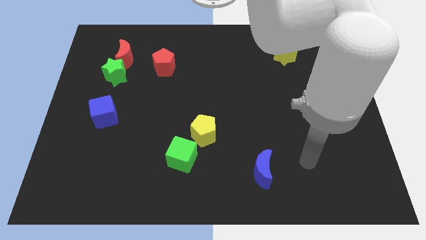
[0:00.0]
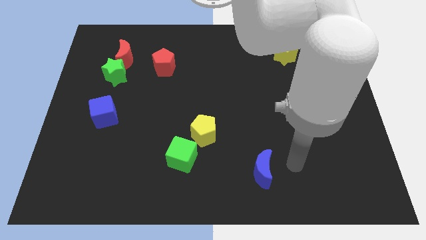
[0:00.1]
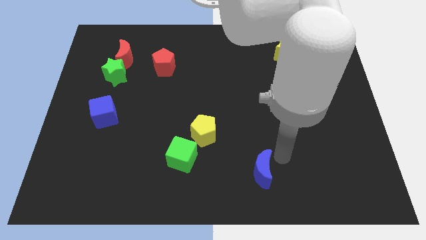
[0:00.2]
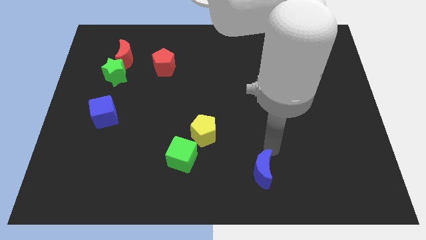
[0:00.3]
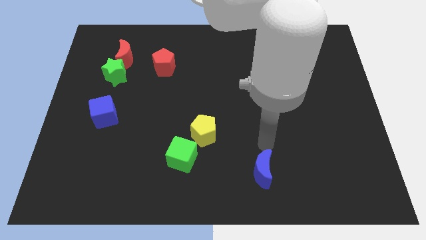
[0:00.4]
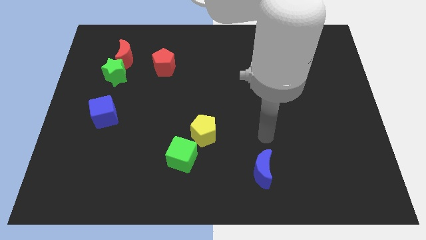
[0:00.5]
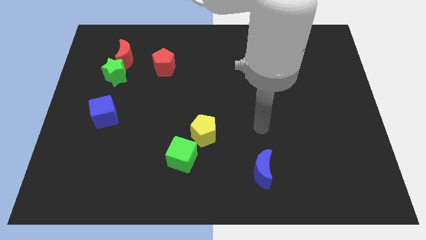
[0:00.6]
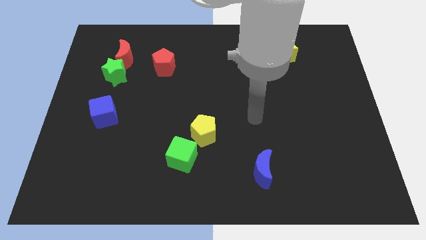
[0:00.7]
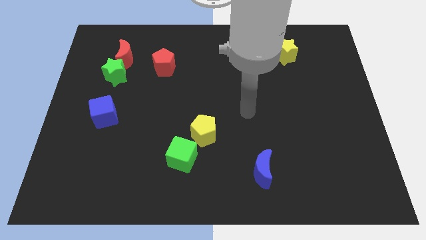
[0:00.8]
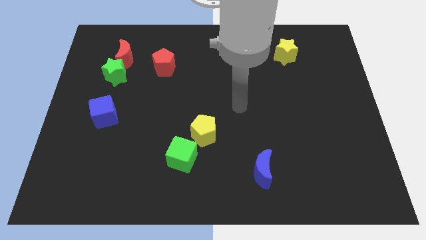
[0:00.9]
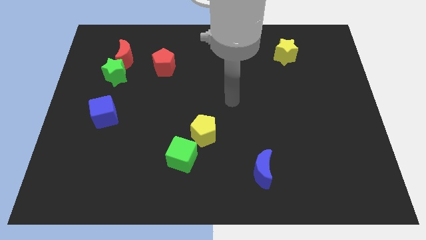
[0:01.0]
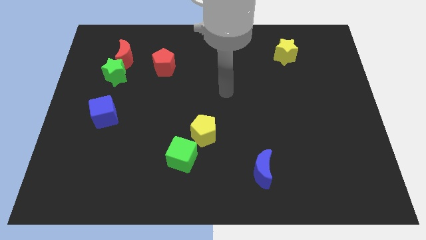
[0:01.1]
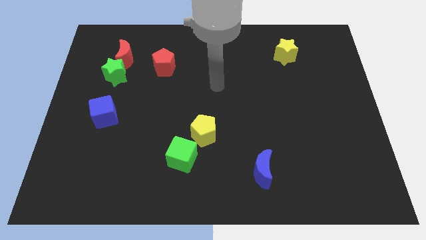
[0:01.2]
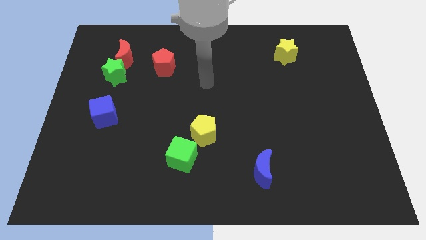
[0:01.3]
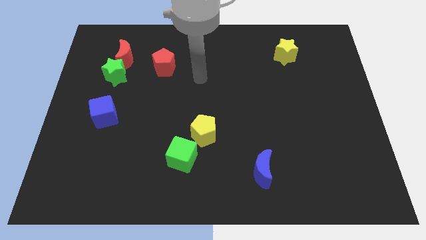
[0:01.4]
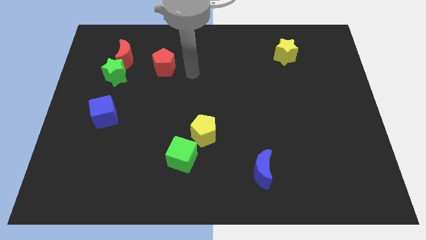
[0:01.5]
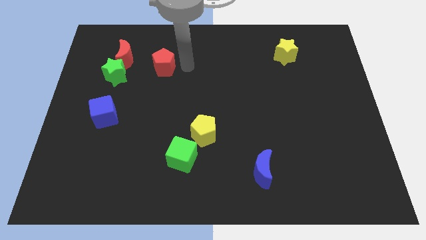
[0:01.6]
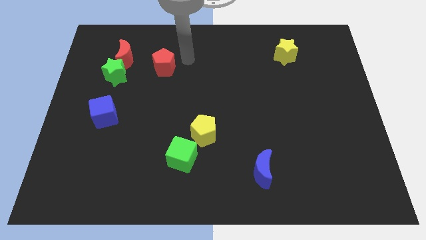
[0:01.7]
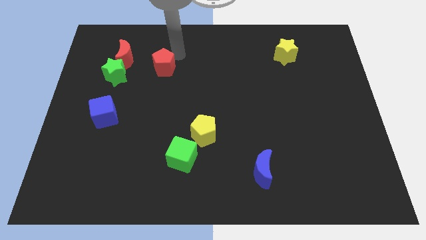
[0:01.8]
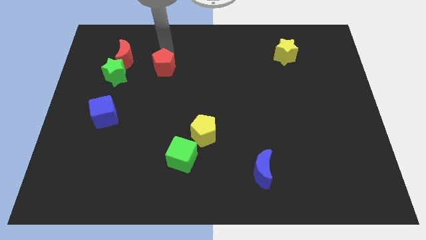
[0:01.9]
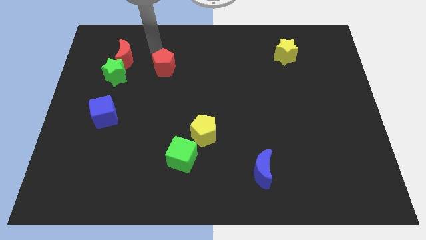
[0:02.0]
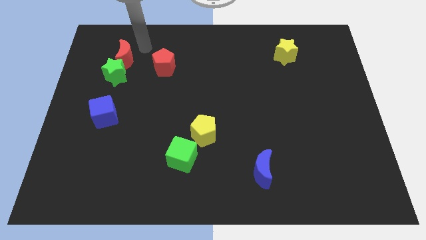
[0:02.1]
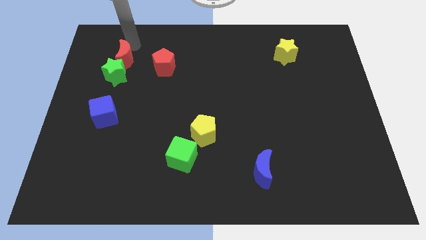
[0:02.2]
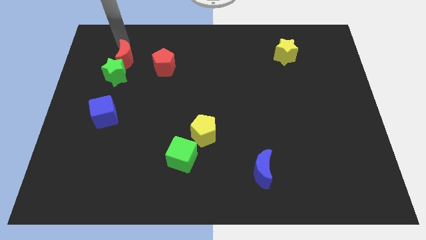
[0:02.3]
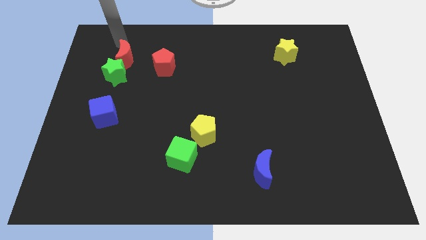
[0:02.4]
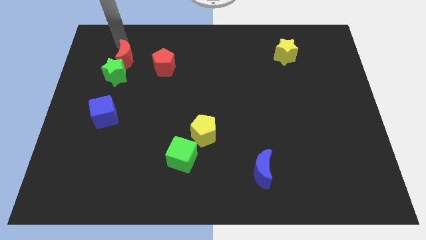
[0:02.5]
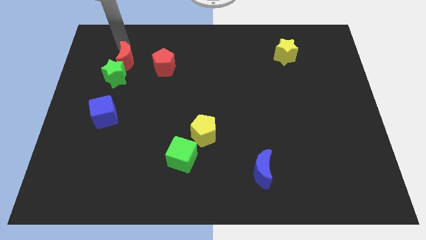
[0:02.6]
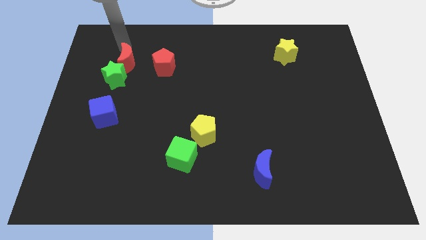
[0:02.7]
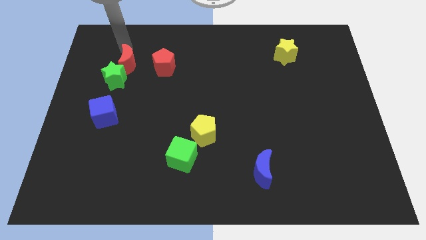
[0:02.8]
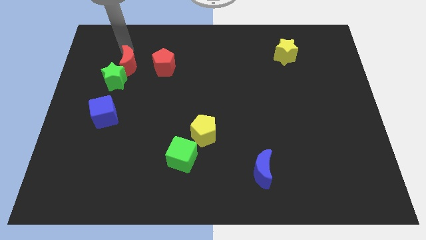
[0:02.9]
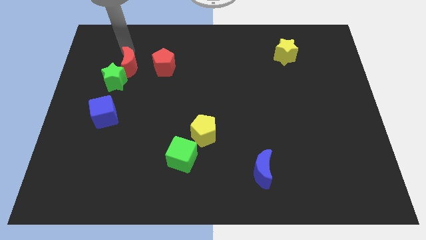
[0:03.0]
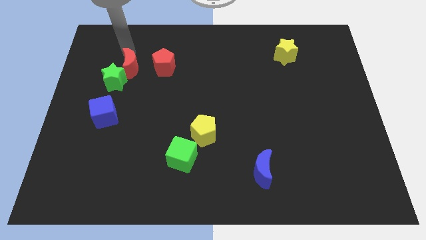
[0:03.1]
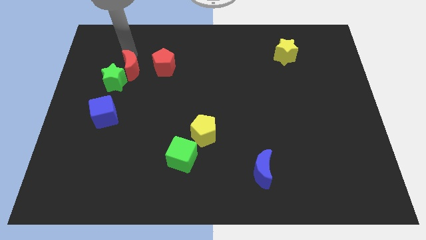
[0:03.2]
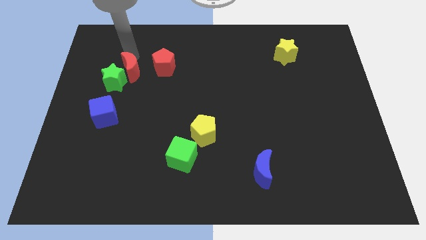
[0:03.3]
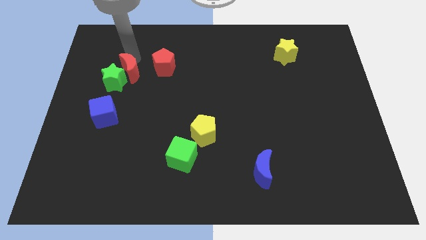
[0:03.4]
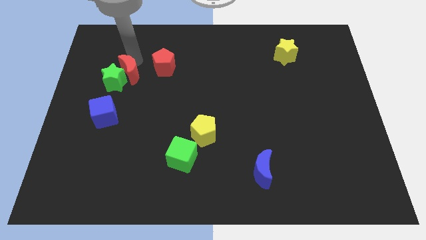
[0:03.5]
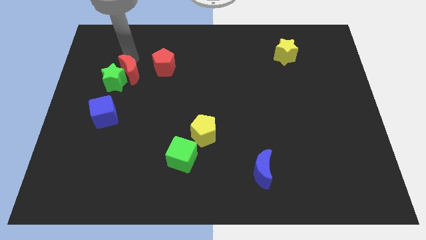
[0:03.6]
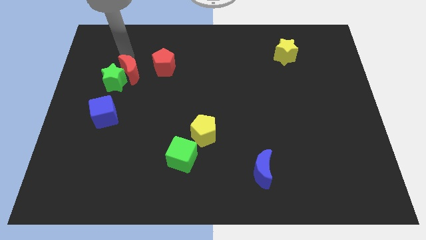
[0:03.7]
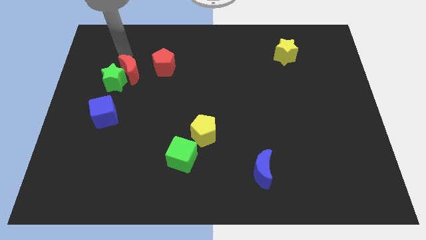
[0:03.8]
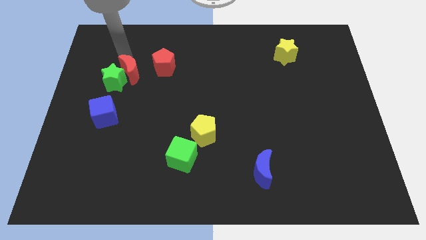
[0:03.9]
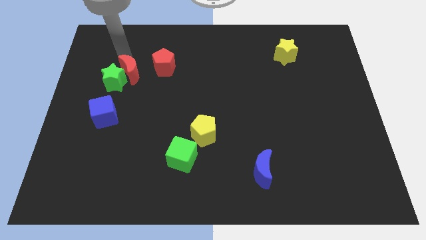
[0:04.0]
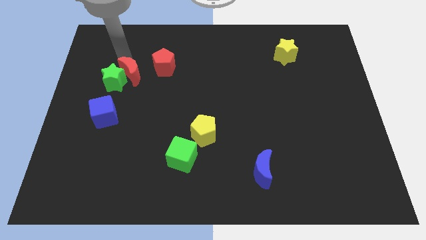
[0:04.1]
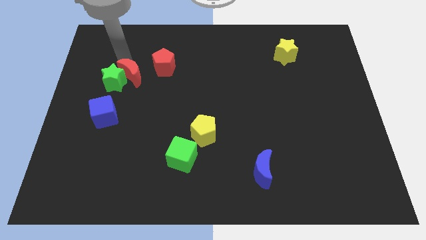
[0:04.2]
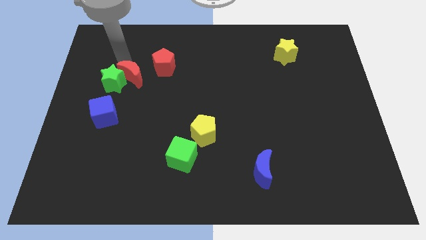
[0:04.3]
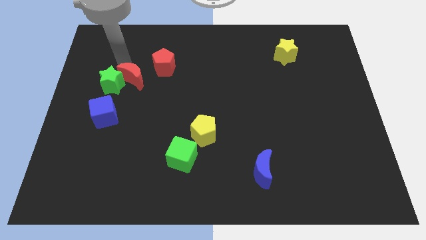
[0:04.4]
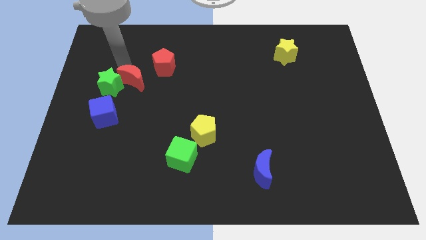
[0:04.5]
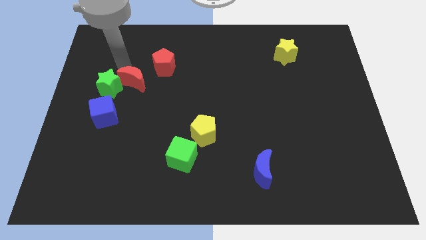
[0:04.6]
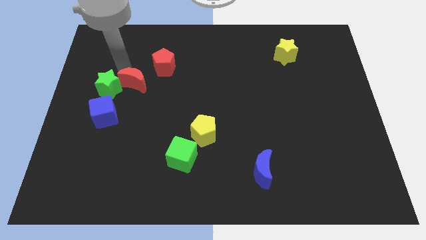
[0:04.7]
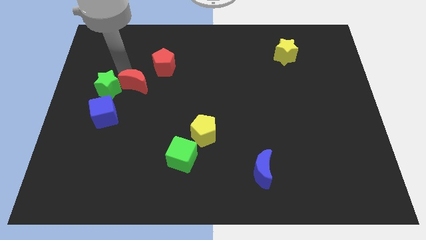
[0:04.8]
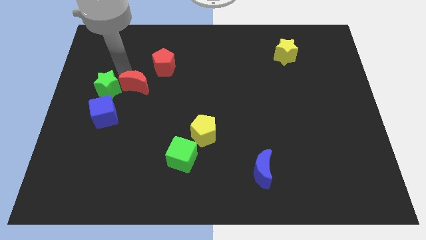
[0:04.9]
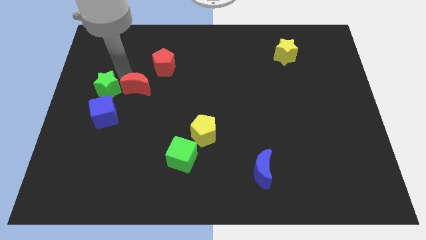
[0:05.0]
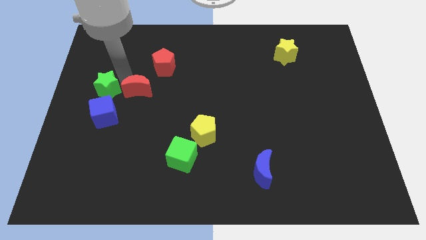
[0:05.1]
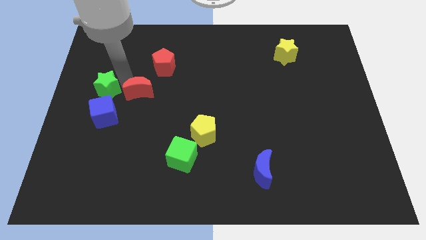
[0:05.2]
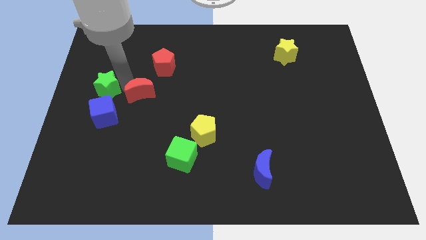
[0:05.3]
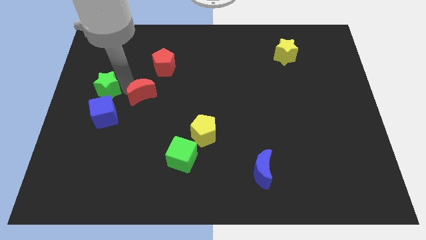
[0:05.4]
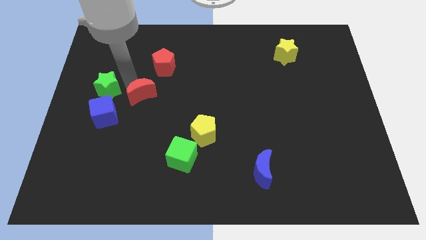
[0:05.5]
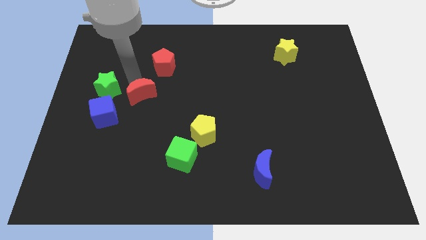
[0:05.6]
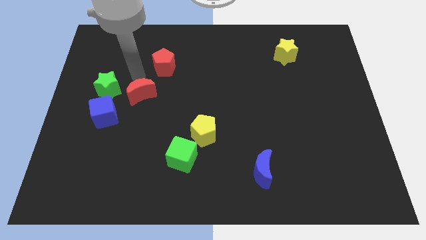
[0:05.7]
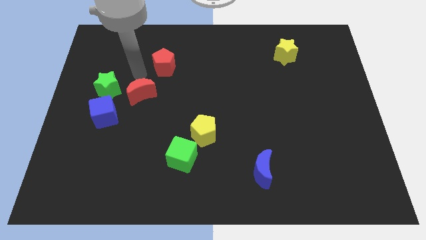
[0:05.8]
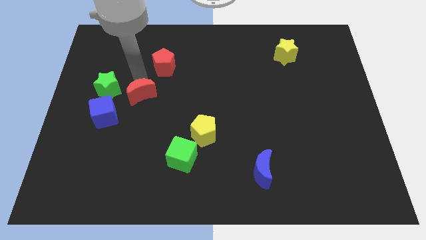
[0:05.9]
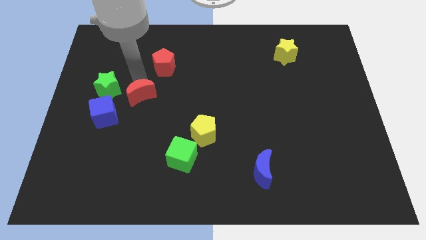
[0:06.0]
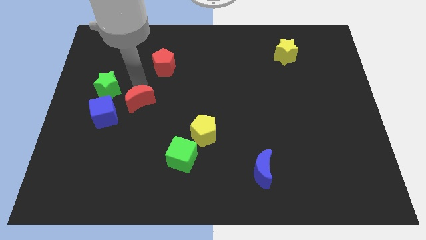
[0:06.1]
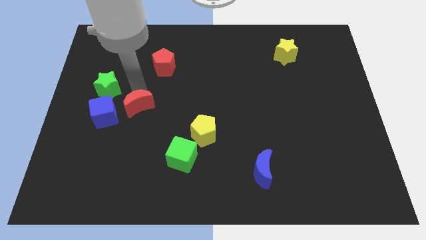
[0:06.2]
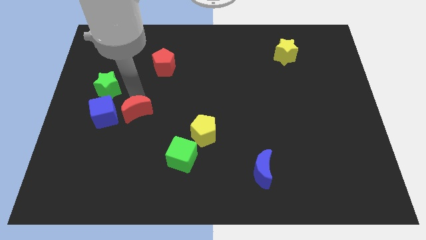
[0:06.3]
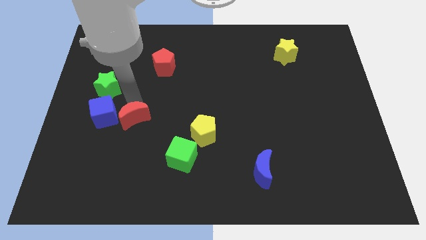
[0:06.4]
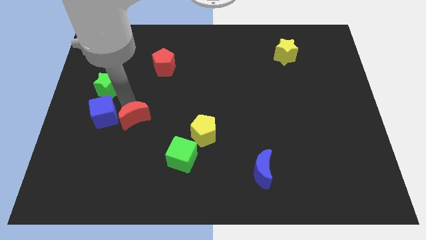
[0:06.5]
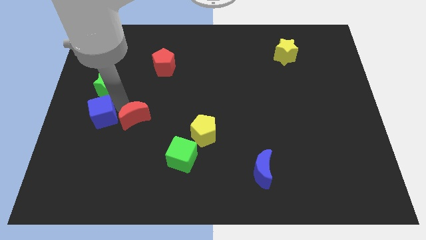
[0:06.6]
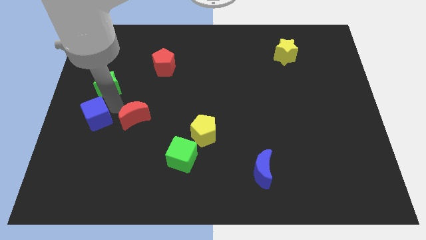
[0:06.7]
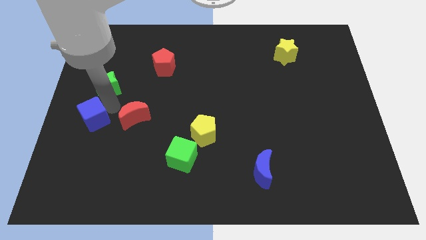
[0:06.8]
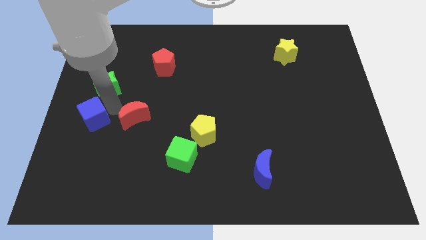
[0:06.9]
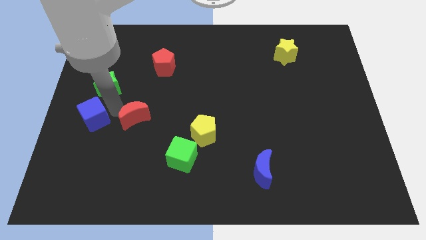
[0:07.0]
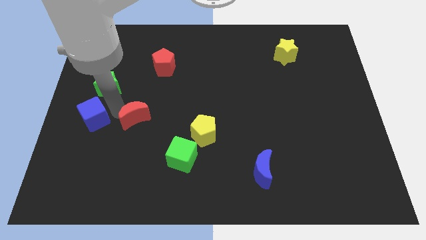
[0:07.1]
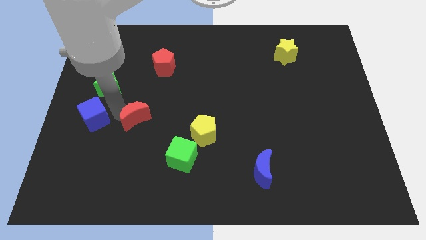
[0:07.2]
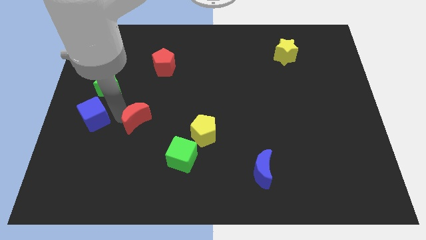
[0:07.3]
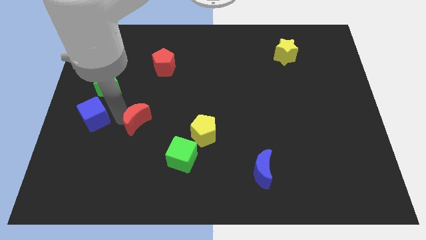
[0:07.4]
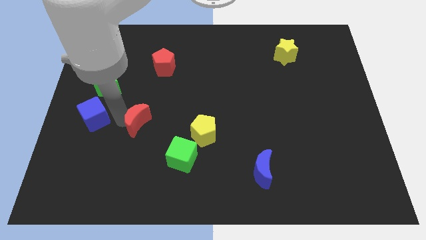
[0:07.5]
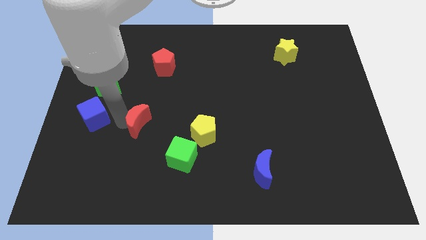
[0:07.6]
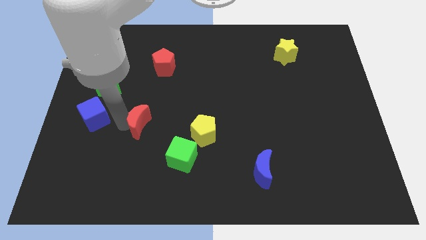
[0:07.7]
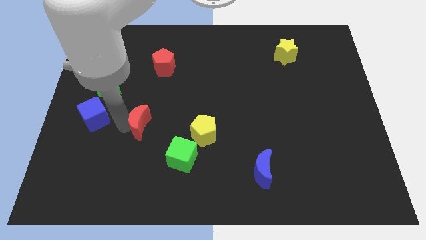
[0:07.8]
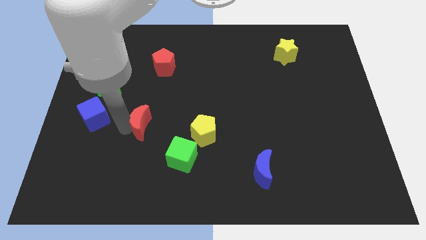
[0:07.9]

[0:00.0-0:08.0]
move the red moon to the top left of the green cube
